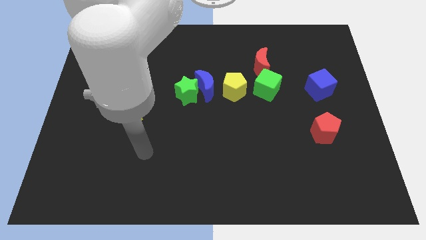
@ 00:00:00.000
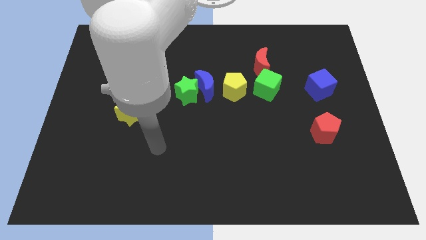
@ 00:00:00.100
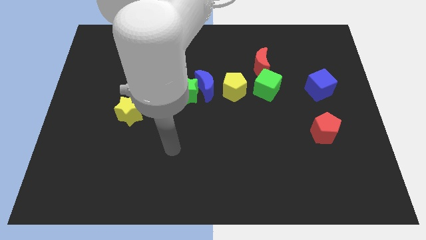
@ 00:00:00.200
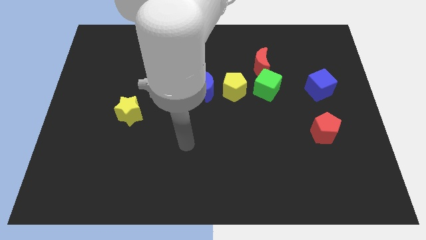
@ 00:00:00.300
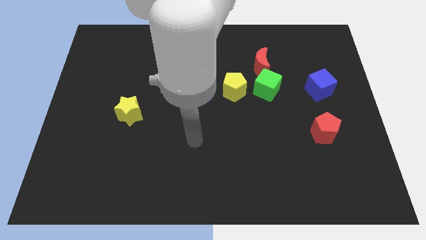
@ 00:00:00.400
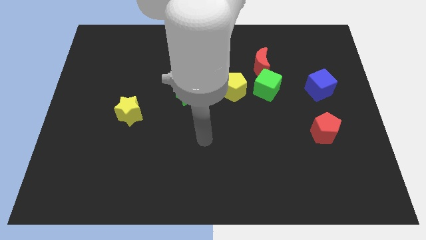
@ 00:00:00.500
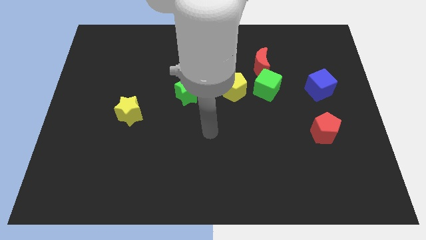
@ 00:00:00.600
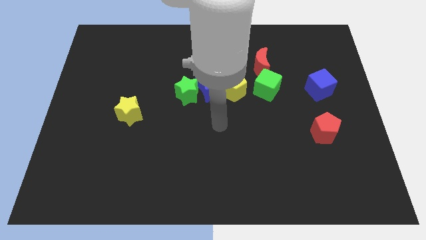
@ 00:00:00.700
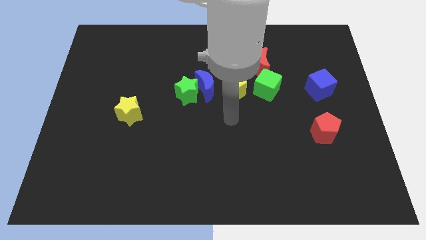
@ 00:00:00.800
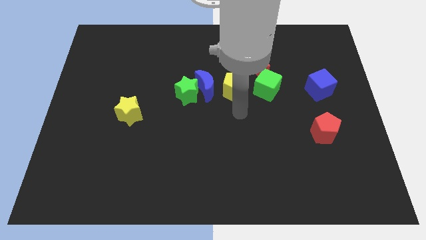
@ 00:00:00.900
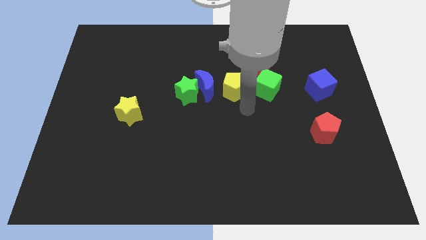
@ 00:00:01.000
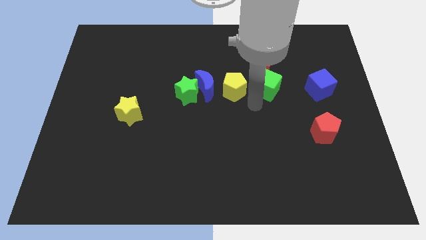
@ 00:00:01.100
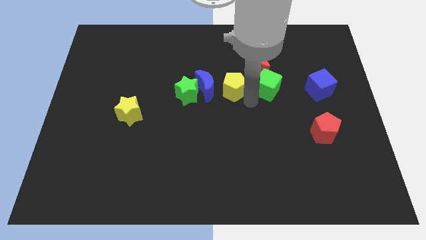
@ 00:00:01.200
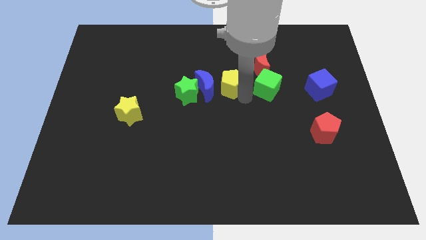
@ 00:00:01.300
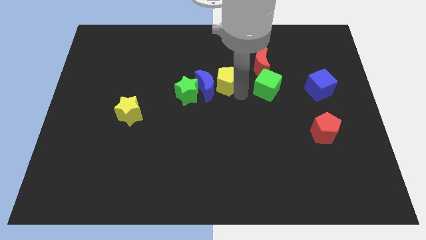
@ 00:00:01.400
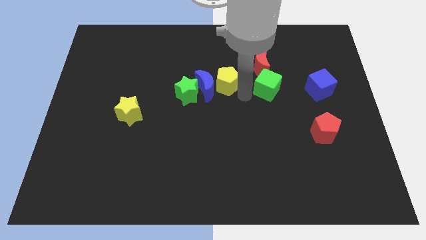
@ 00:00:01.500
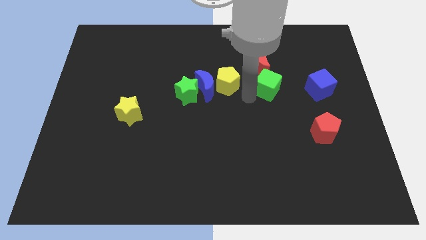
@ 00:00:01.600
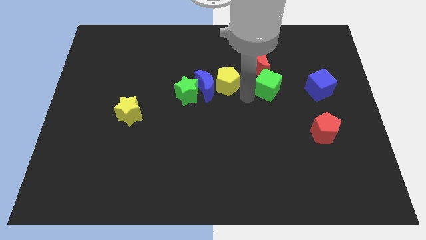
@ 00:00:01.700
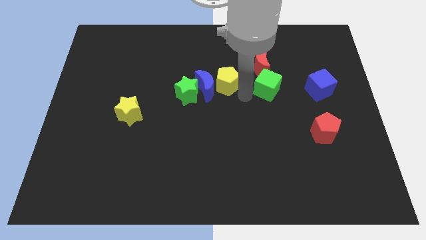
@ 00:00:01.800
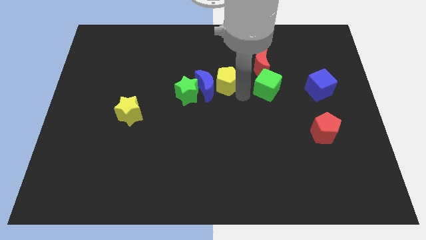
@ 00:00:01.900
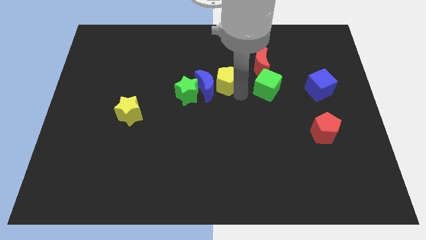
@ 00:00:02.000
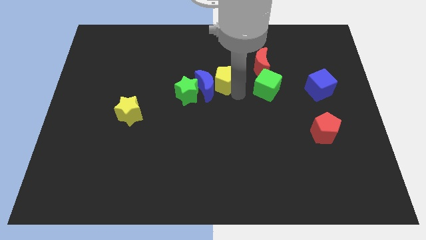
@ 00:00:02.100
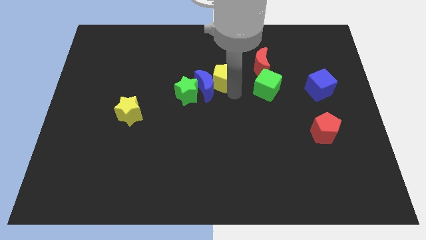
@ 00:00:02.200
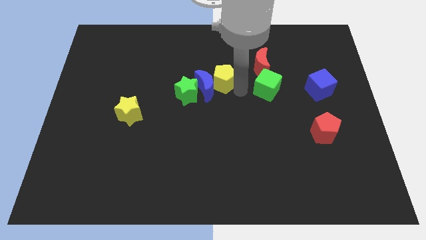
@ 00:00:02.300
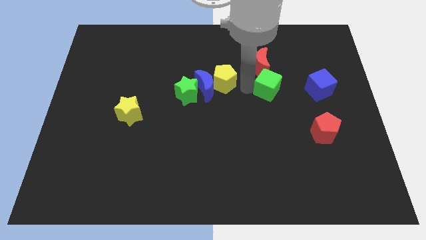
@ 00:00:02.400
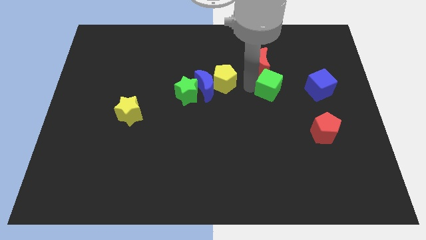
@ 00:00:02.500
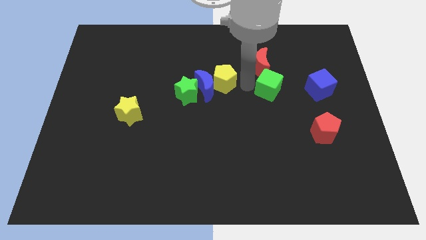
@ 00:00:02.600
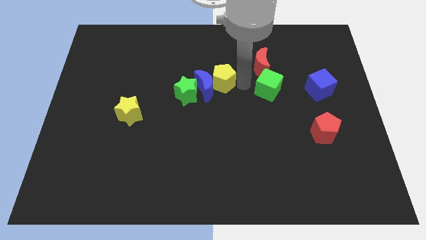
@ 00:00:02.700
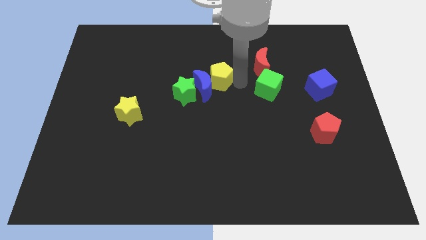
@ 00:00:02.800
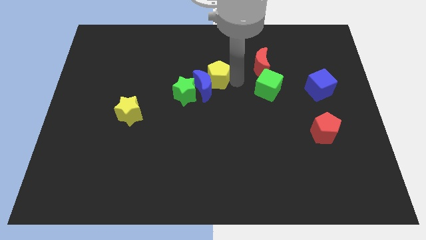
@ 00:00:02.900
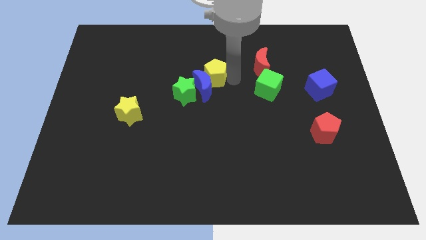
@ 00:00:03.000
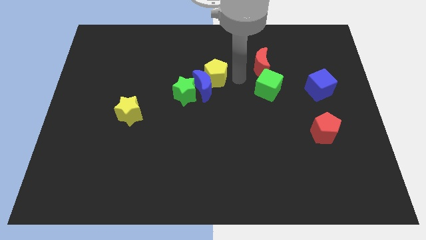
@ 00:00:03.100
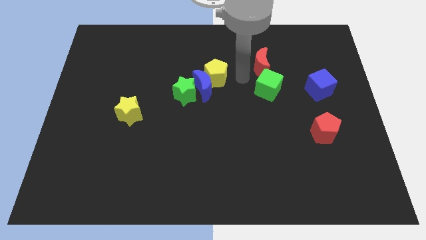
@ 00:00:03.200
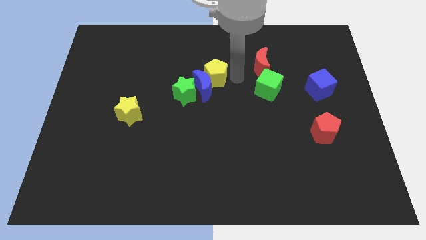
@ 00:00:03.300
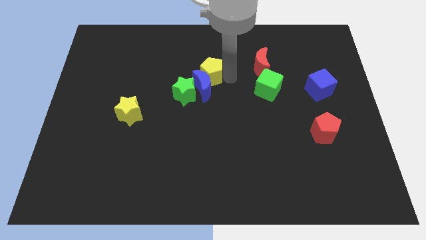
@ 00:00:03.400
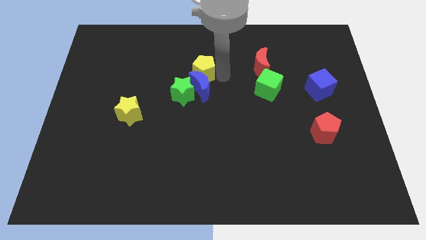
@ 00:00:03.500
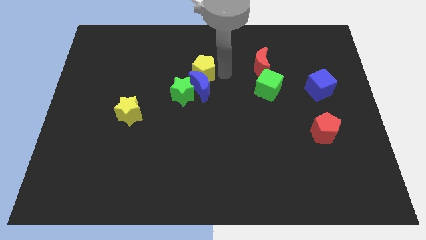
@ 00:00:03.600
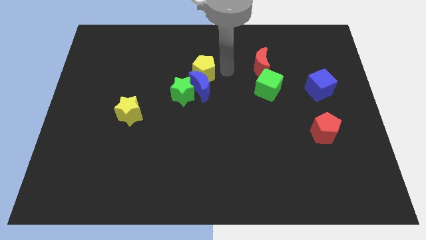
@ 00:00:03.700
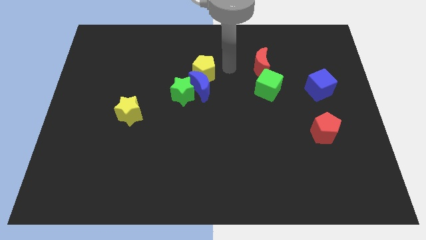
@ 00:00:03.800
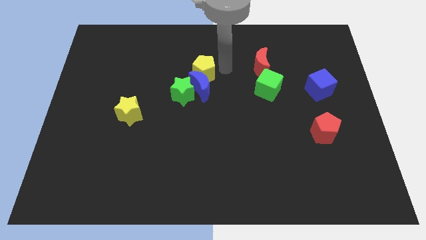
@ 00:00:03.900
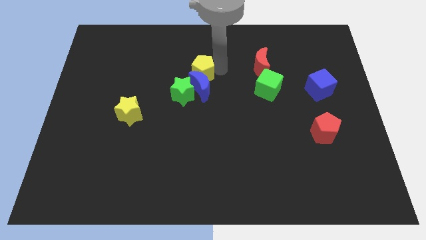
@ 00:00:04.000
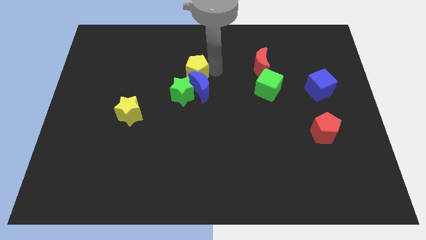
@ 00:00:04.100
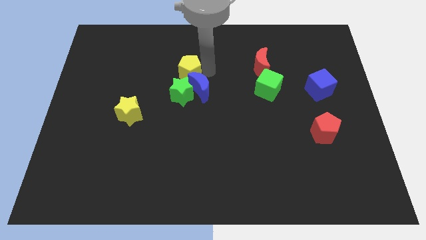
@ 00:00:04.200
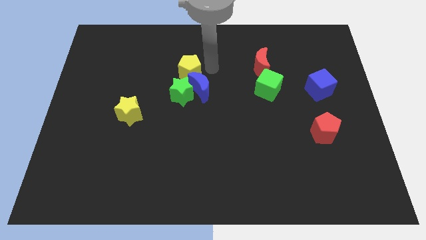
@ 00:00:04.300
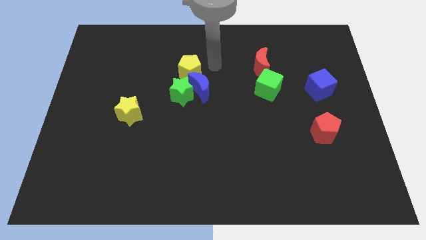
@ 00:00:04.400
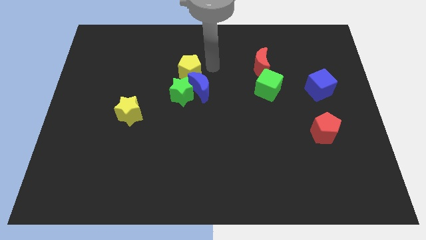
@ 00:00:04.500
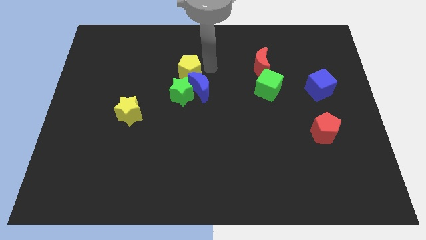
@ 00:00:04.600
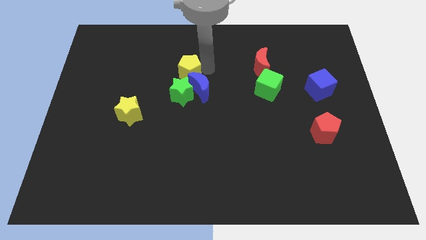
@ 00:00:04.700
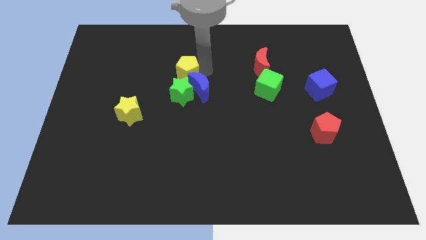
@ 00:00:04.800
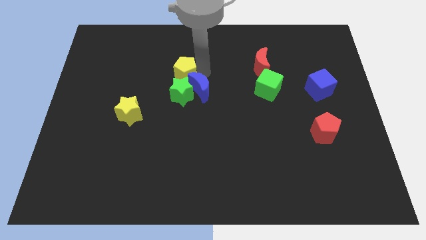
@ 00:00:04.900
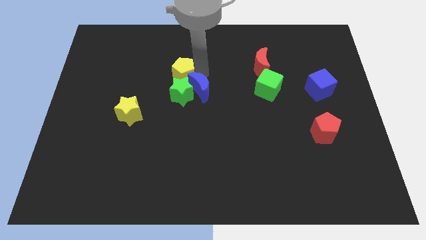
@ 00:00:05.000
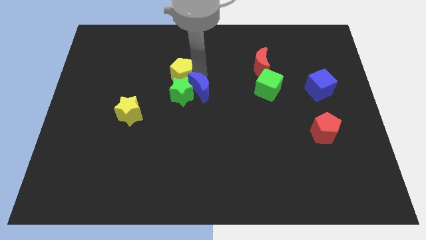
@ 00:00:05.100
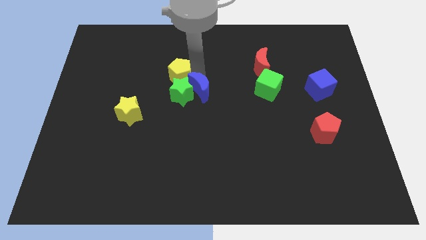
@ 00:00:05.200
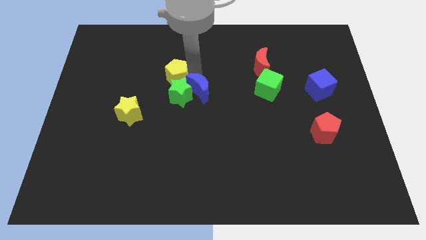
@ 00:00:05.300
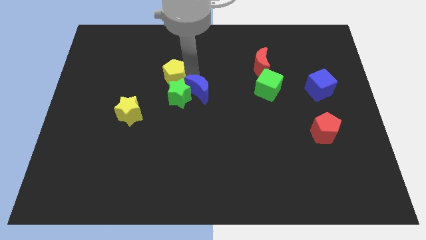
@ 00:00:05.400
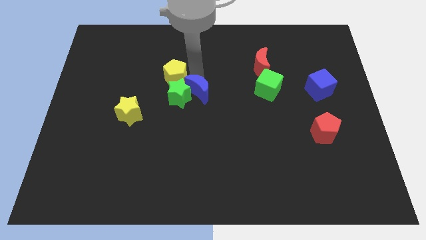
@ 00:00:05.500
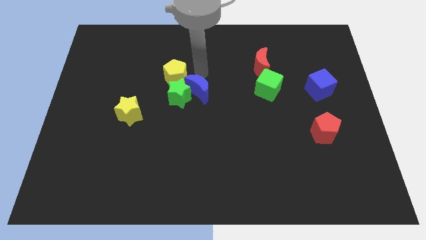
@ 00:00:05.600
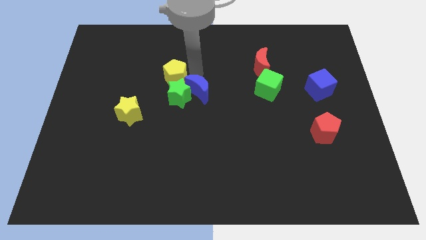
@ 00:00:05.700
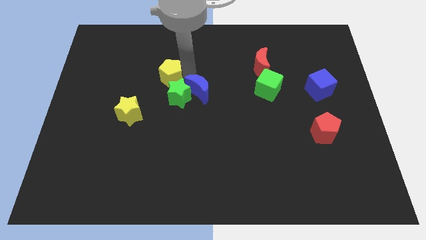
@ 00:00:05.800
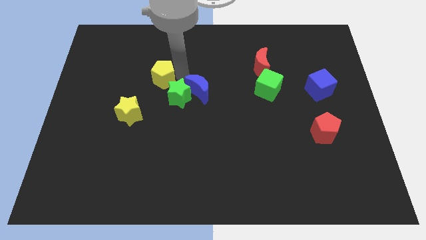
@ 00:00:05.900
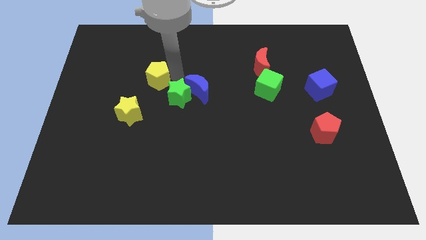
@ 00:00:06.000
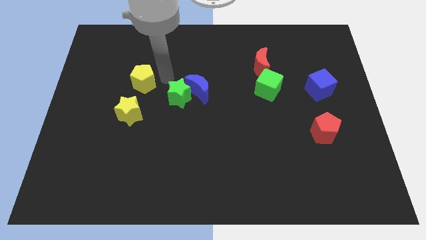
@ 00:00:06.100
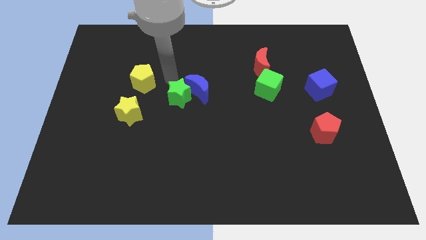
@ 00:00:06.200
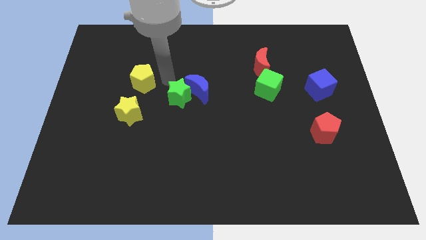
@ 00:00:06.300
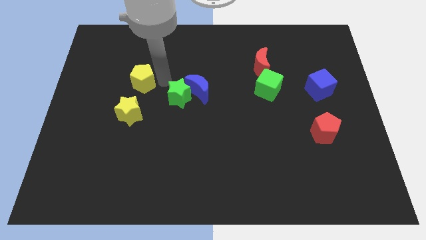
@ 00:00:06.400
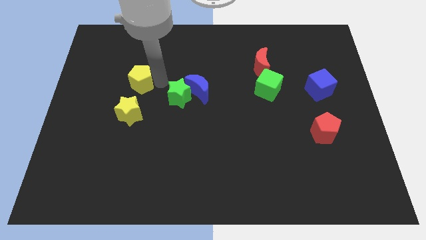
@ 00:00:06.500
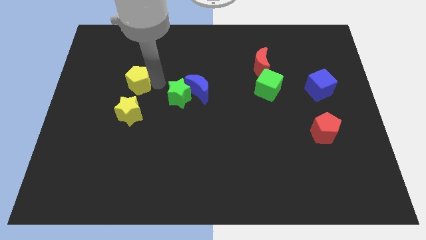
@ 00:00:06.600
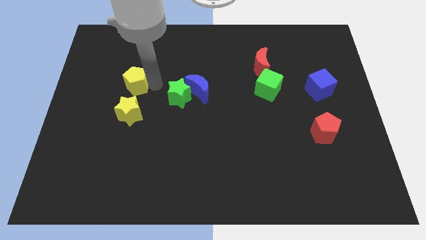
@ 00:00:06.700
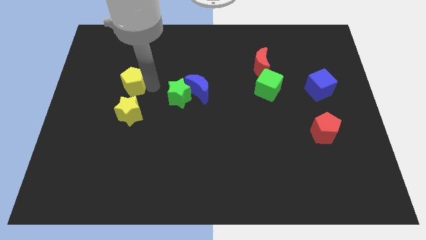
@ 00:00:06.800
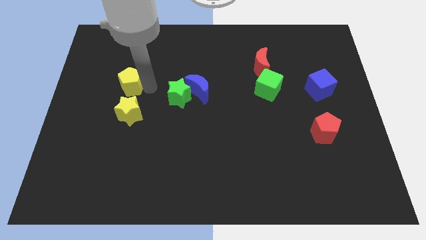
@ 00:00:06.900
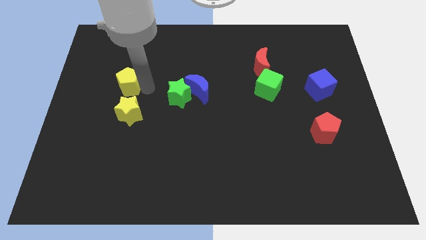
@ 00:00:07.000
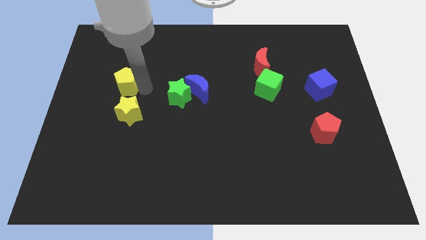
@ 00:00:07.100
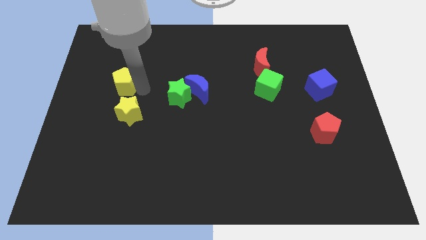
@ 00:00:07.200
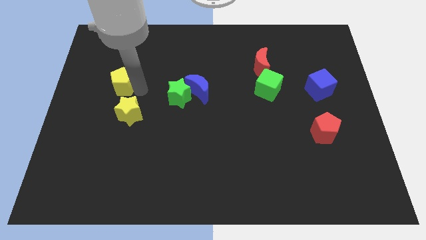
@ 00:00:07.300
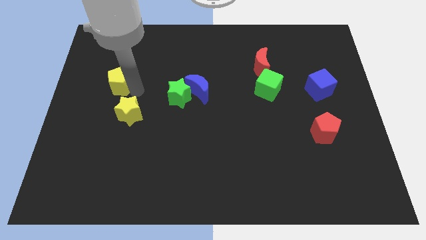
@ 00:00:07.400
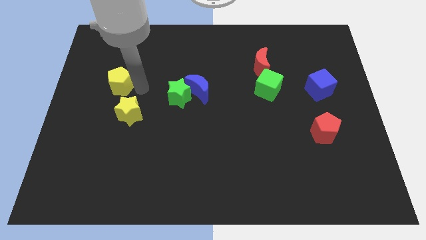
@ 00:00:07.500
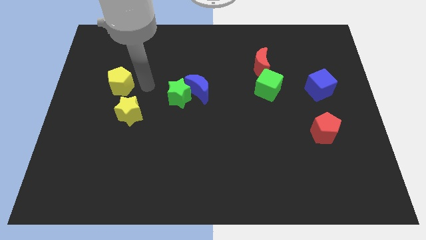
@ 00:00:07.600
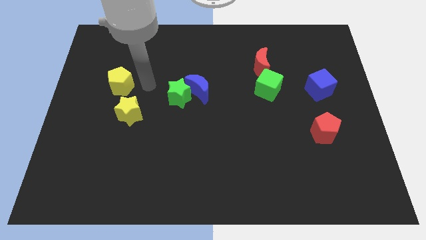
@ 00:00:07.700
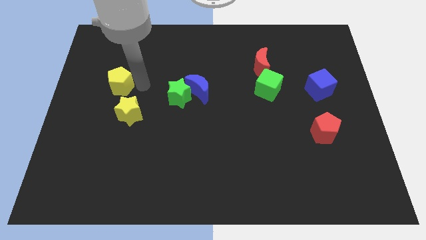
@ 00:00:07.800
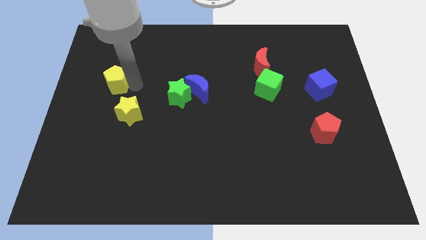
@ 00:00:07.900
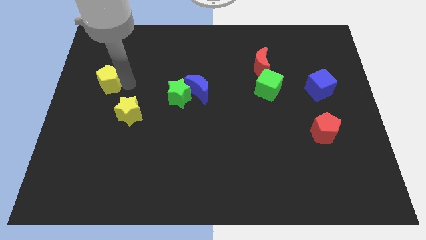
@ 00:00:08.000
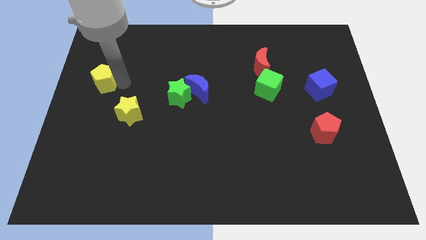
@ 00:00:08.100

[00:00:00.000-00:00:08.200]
put the yellow pentagon to the center left
